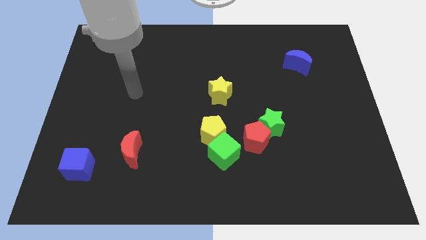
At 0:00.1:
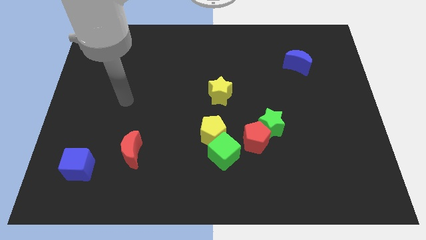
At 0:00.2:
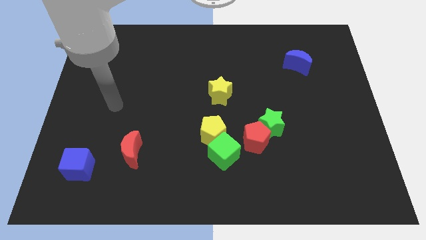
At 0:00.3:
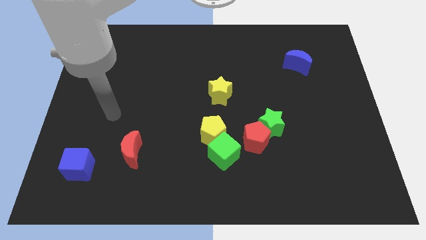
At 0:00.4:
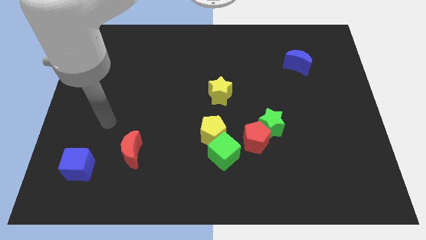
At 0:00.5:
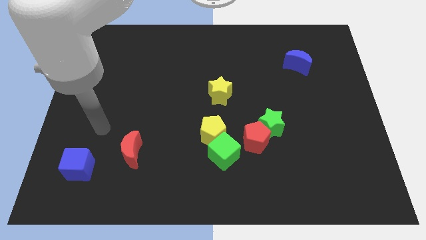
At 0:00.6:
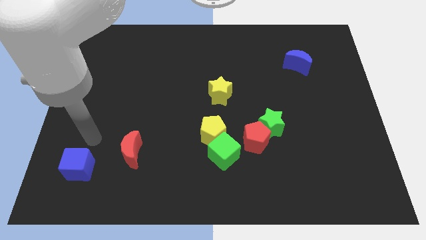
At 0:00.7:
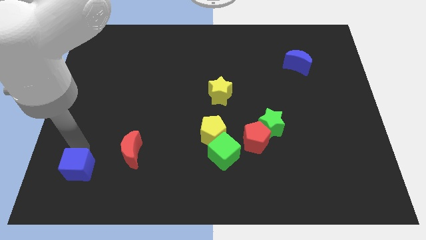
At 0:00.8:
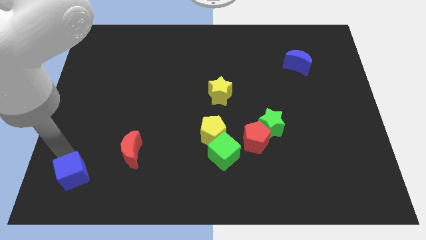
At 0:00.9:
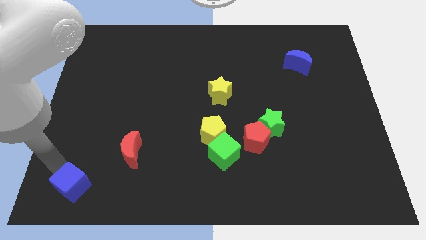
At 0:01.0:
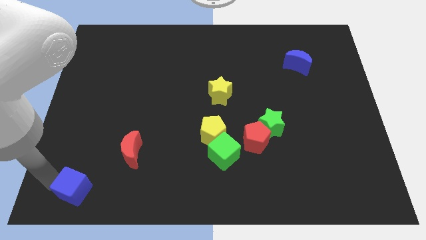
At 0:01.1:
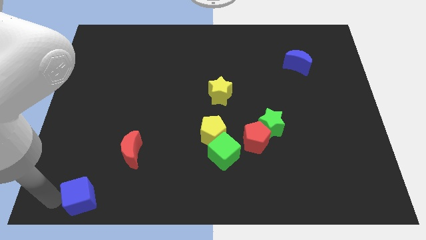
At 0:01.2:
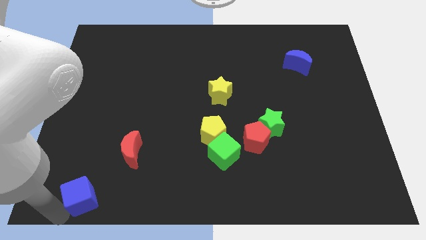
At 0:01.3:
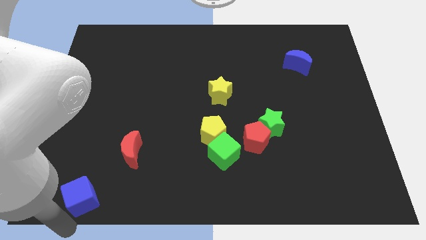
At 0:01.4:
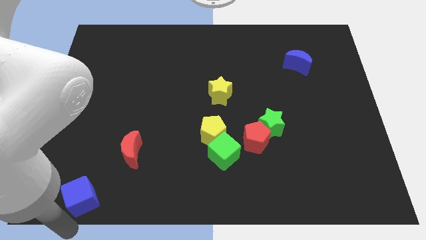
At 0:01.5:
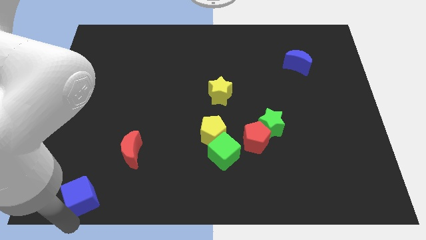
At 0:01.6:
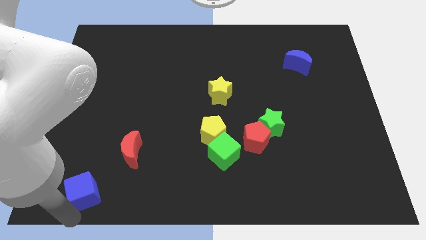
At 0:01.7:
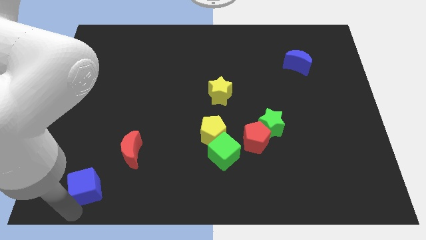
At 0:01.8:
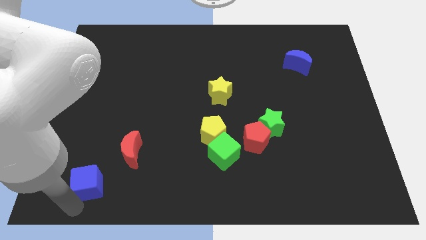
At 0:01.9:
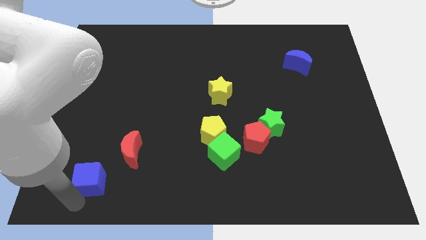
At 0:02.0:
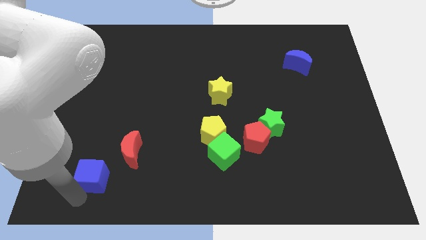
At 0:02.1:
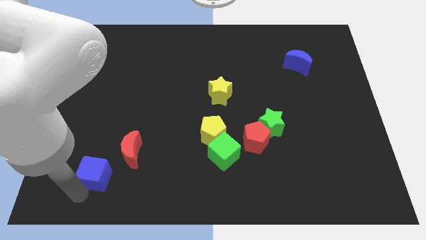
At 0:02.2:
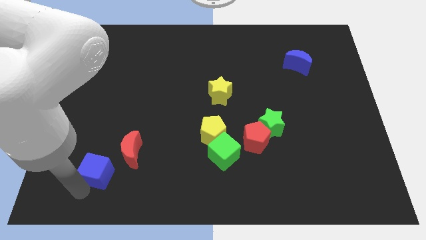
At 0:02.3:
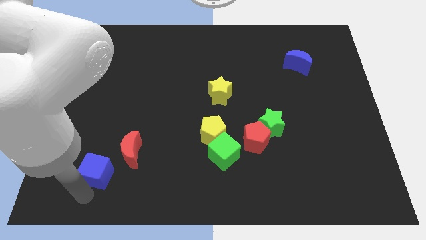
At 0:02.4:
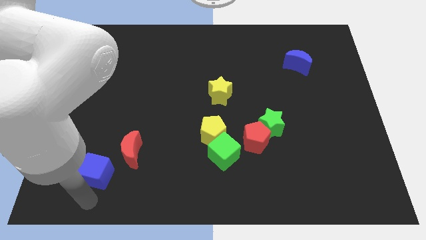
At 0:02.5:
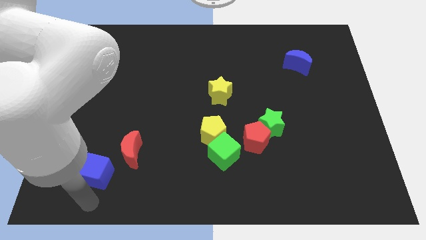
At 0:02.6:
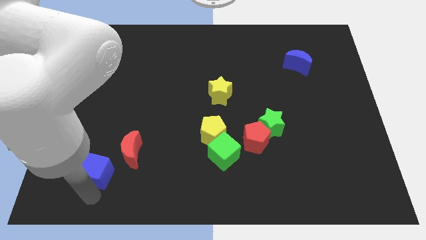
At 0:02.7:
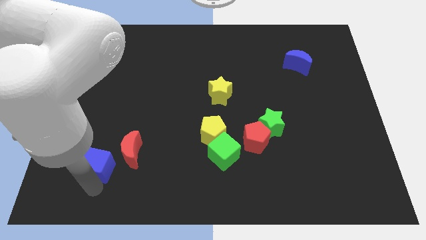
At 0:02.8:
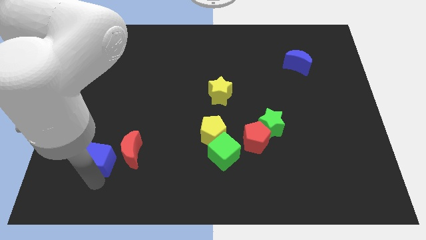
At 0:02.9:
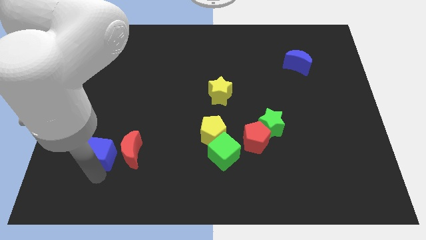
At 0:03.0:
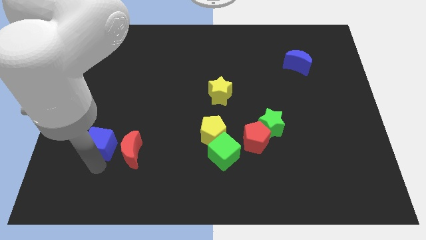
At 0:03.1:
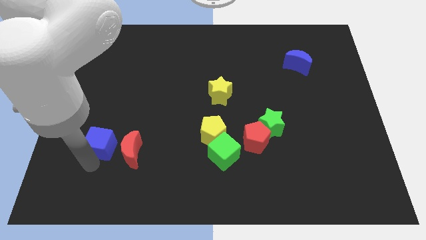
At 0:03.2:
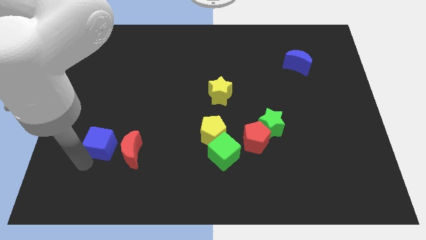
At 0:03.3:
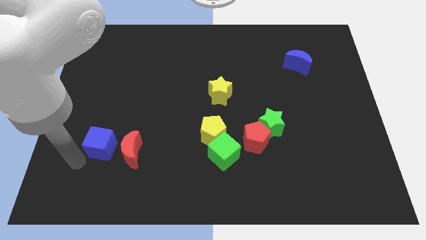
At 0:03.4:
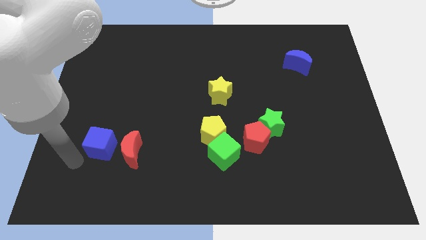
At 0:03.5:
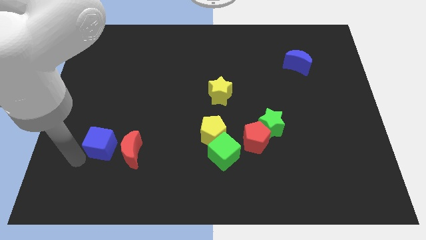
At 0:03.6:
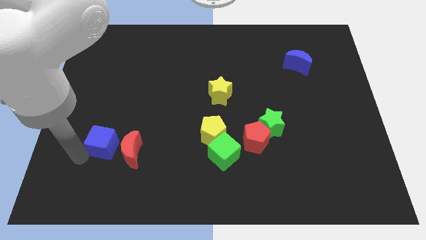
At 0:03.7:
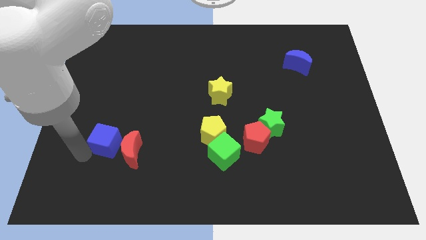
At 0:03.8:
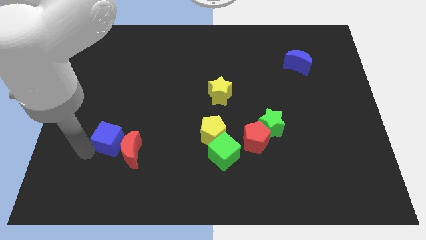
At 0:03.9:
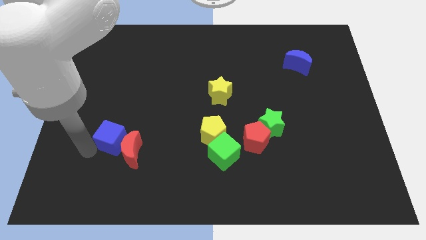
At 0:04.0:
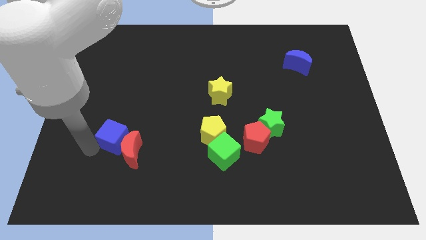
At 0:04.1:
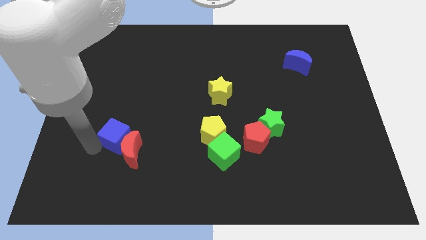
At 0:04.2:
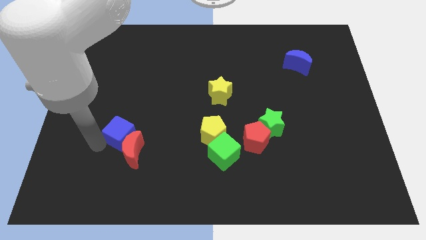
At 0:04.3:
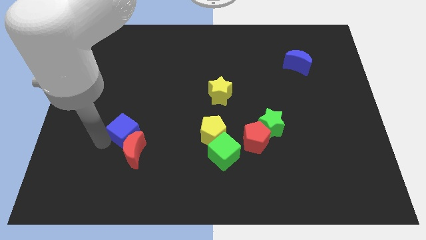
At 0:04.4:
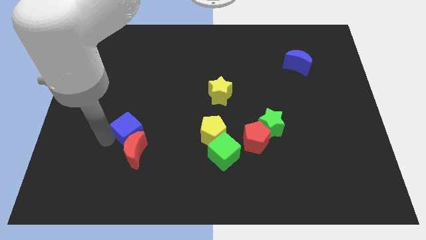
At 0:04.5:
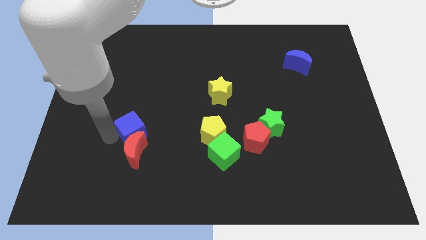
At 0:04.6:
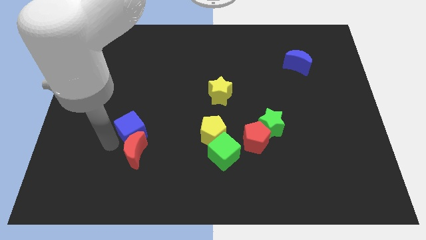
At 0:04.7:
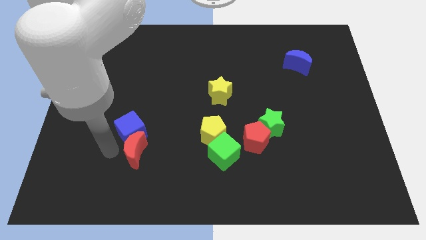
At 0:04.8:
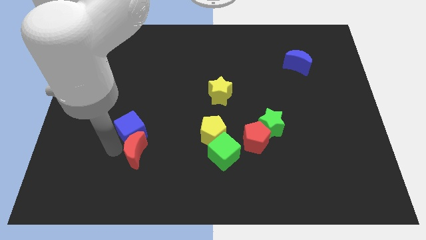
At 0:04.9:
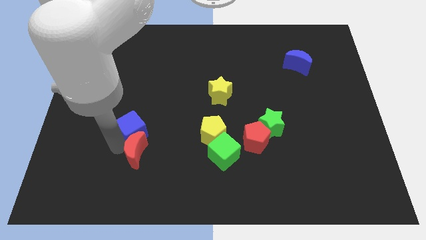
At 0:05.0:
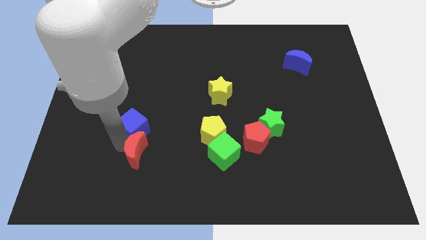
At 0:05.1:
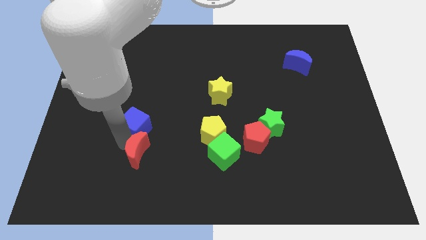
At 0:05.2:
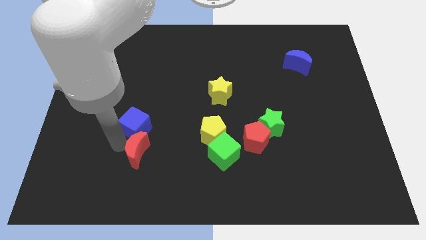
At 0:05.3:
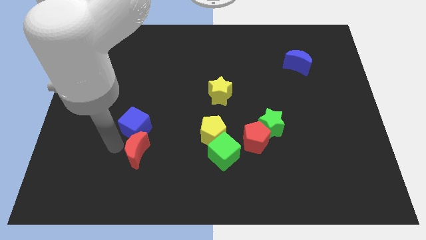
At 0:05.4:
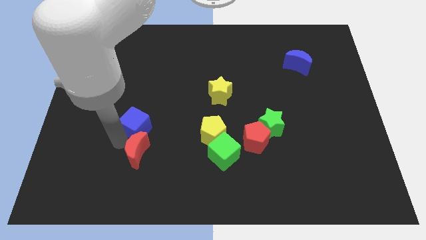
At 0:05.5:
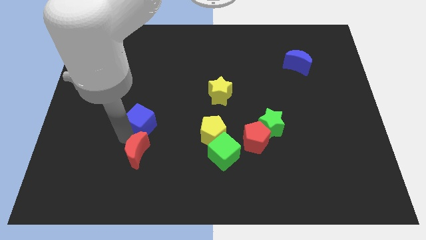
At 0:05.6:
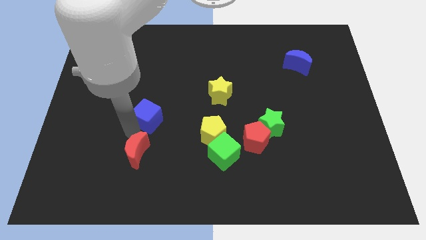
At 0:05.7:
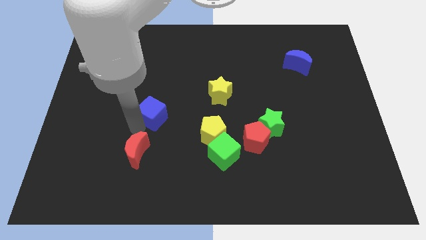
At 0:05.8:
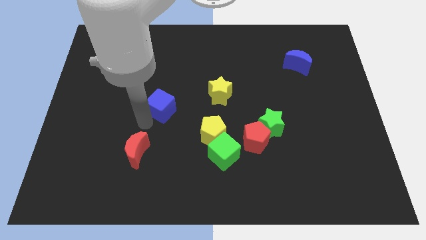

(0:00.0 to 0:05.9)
push the blue cube upwards and right

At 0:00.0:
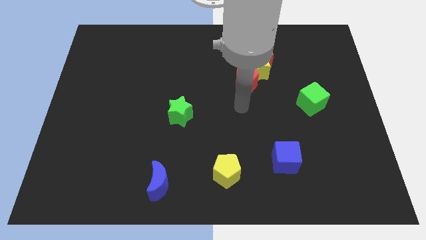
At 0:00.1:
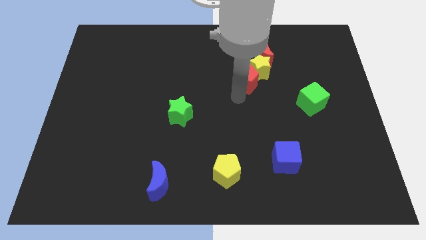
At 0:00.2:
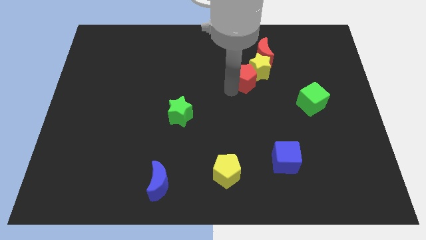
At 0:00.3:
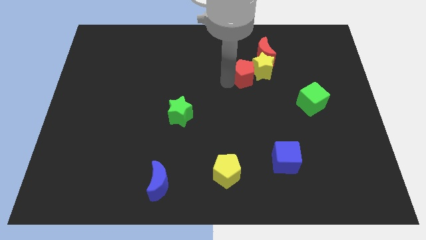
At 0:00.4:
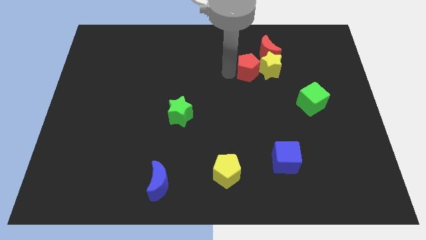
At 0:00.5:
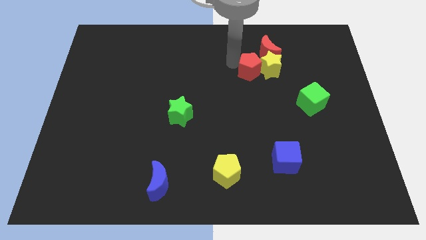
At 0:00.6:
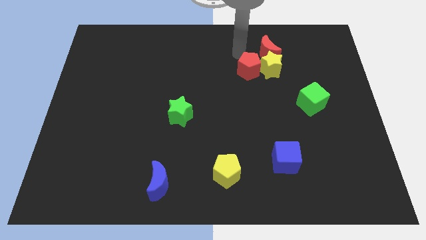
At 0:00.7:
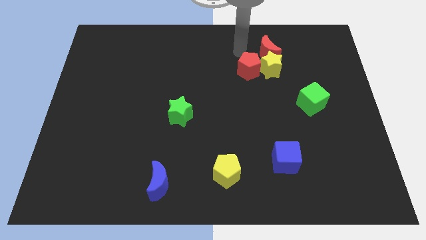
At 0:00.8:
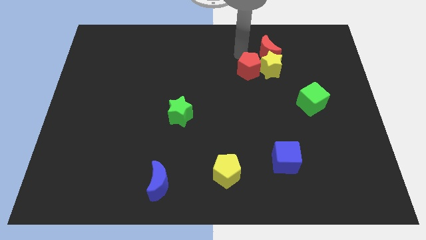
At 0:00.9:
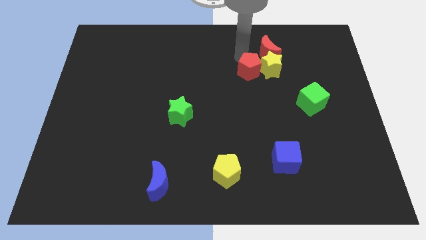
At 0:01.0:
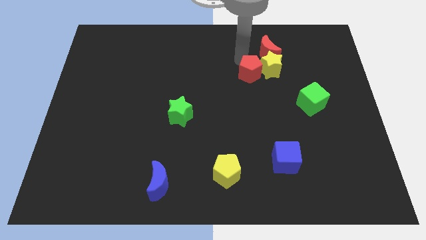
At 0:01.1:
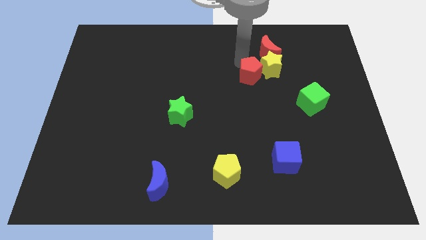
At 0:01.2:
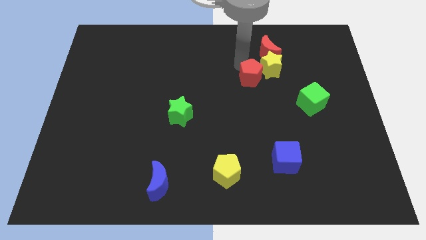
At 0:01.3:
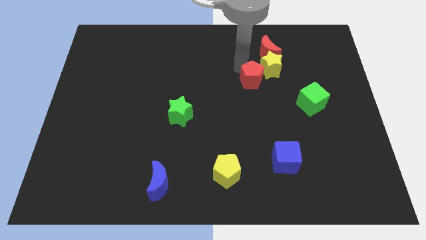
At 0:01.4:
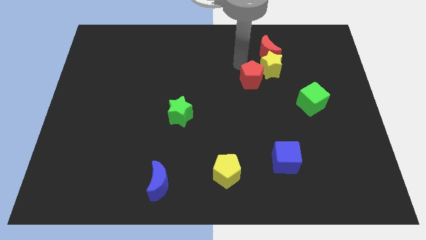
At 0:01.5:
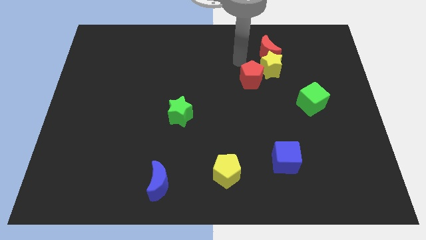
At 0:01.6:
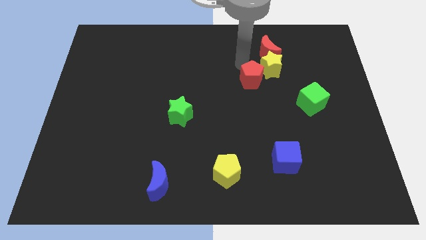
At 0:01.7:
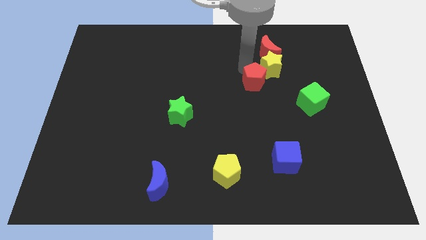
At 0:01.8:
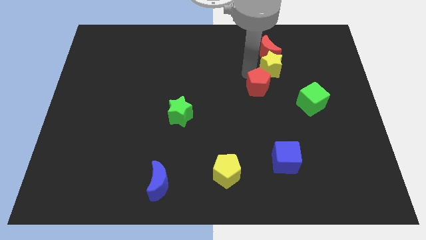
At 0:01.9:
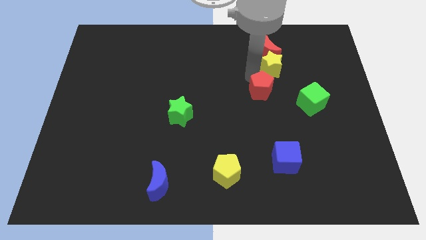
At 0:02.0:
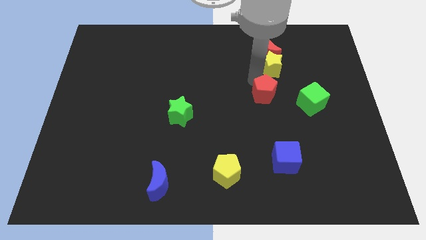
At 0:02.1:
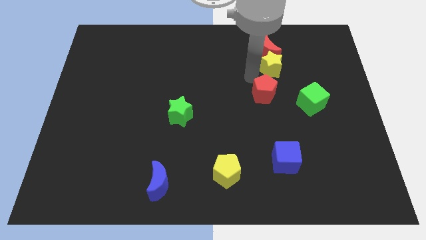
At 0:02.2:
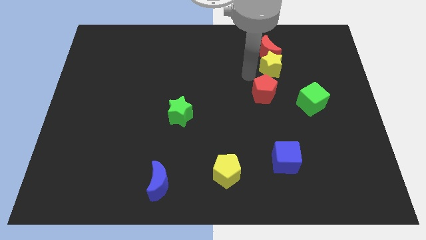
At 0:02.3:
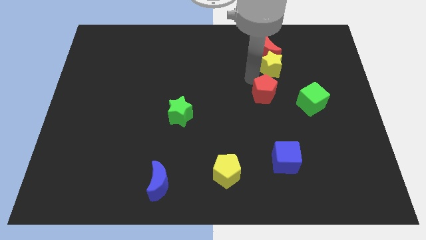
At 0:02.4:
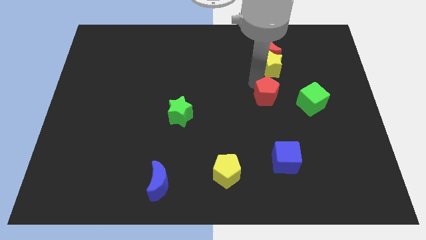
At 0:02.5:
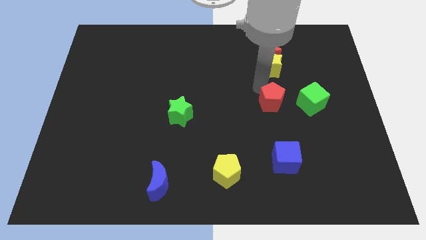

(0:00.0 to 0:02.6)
push the red pentagon down and then right slightly
